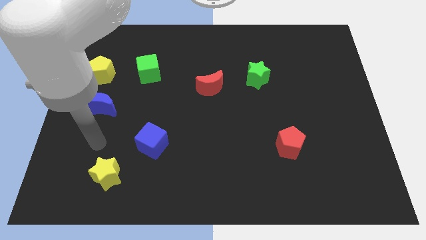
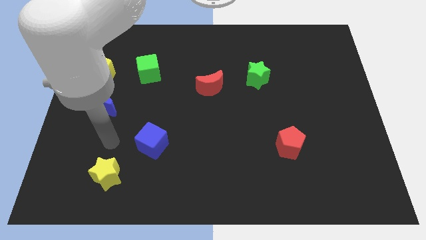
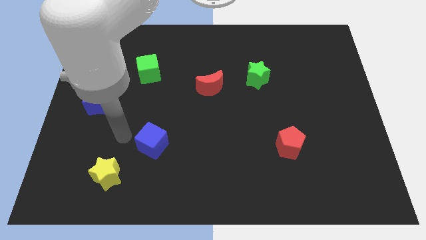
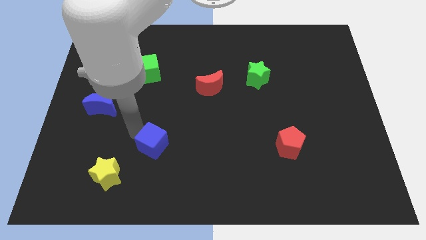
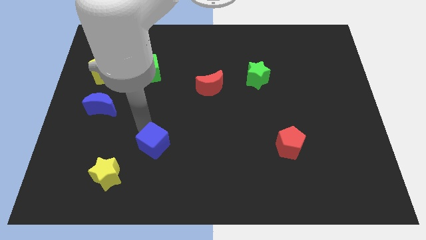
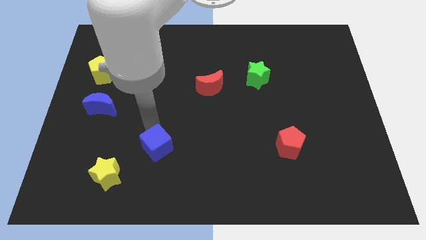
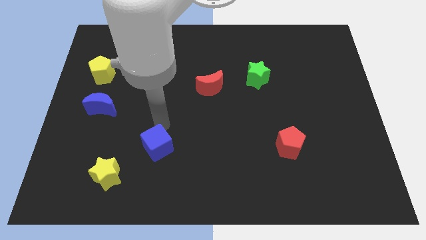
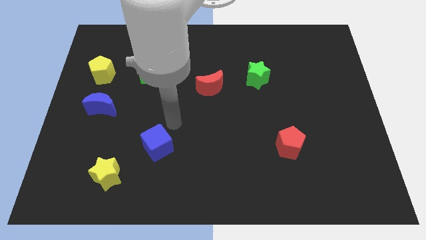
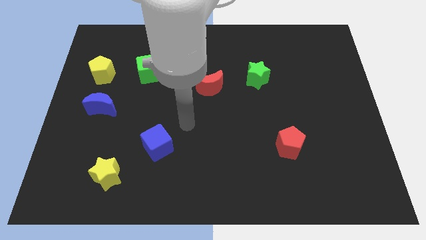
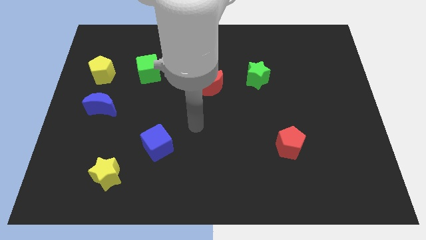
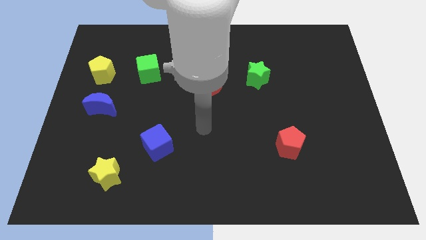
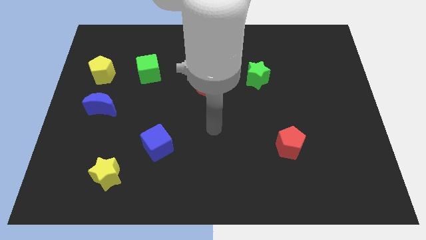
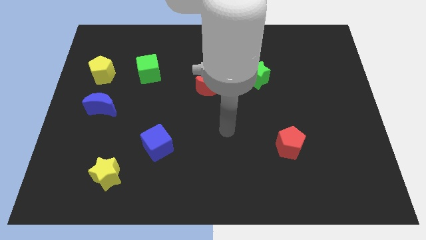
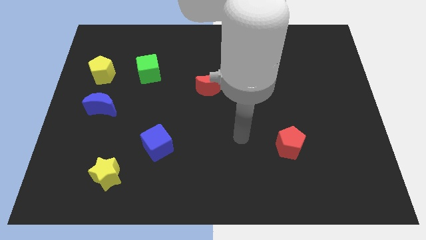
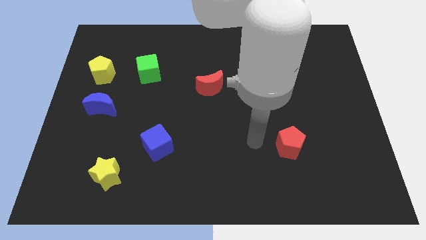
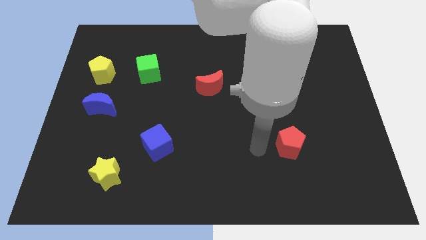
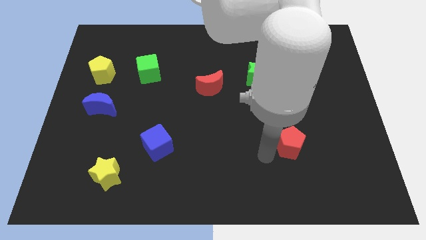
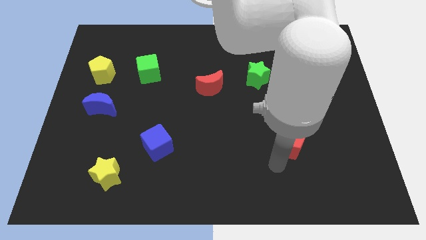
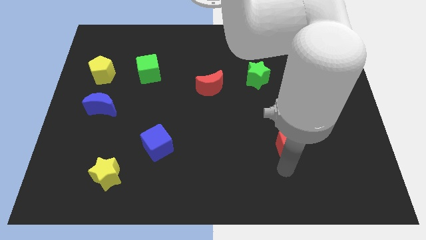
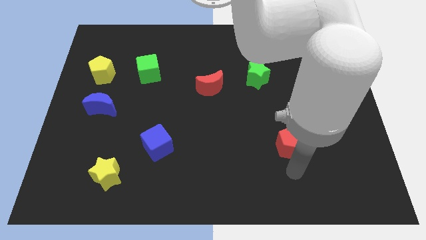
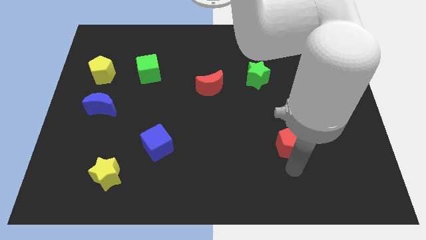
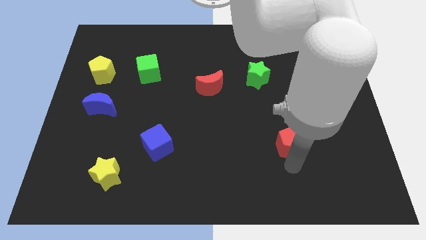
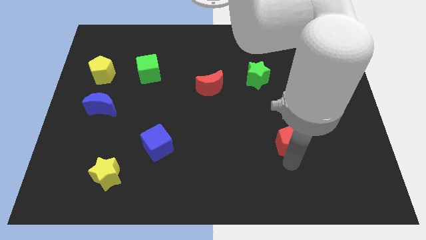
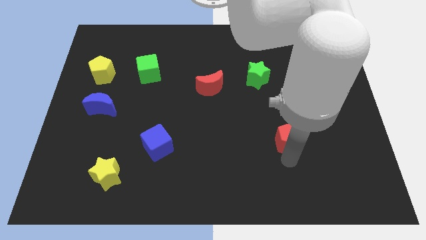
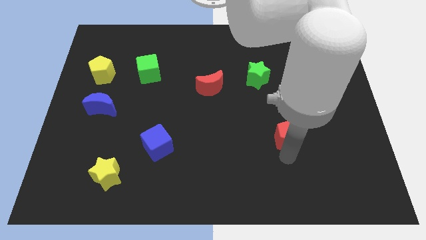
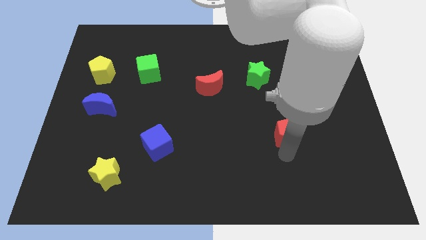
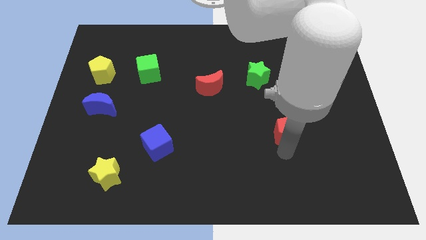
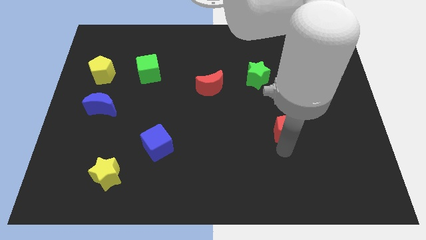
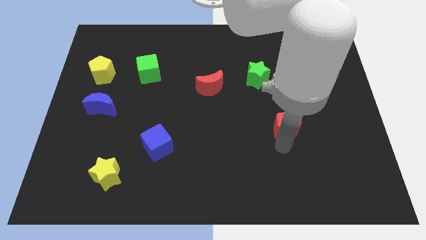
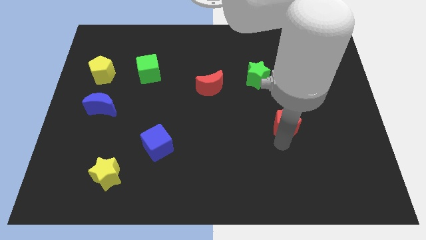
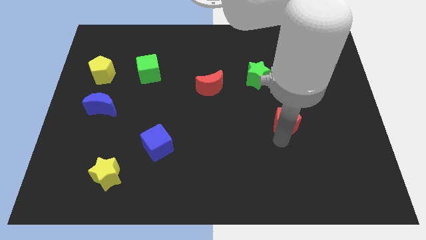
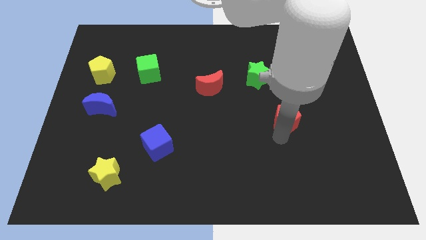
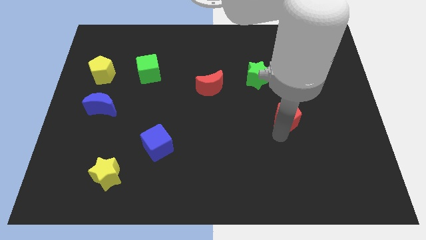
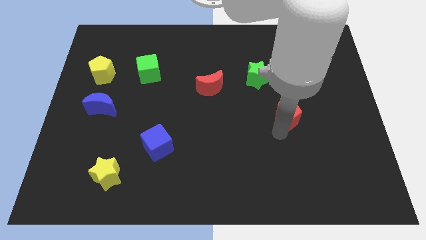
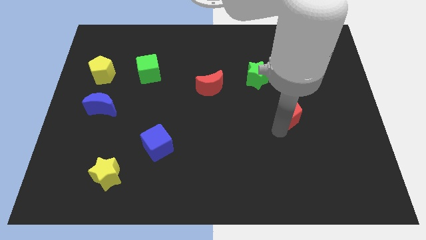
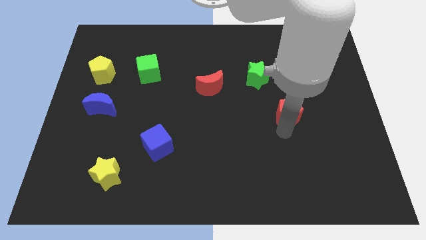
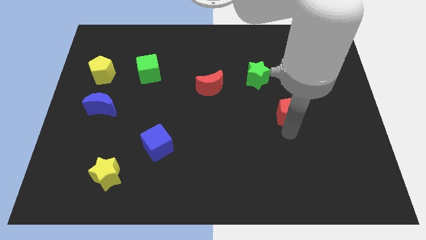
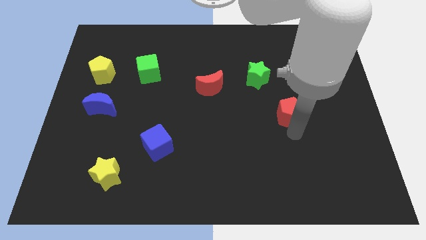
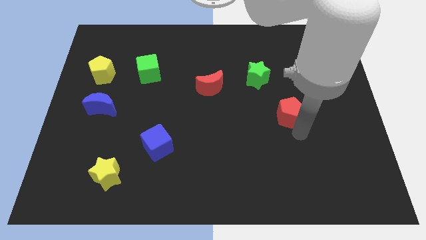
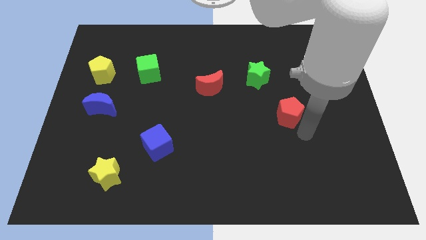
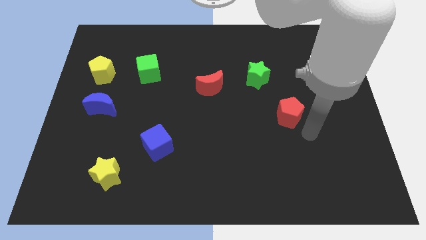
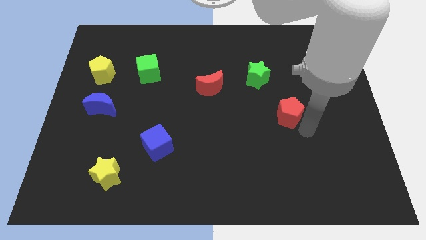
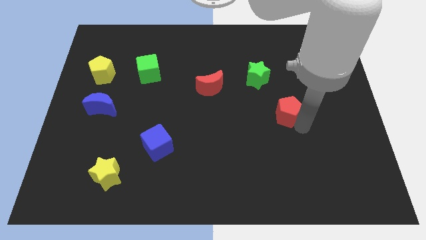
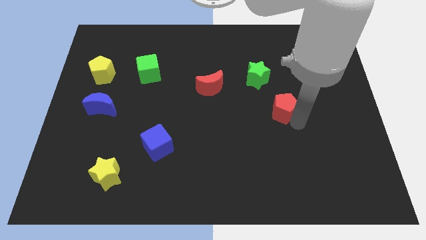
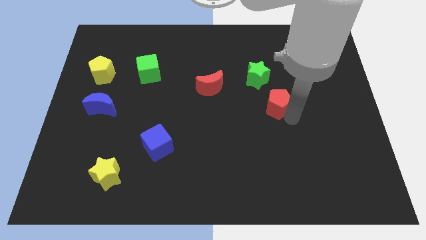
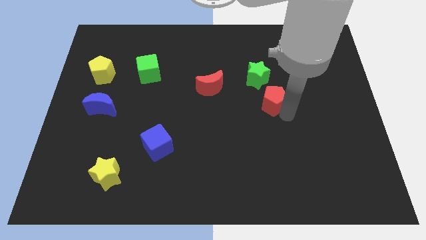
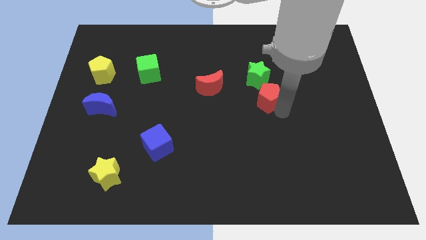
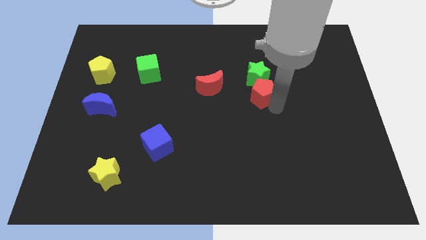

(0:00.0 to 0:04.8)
push the red pentagon to the green star

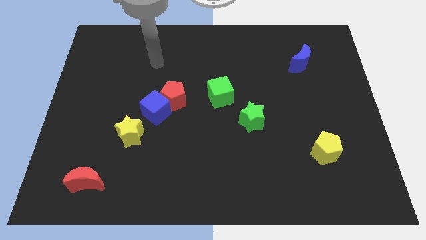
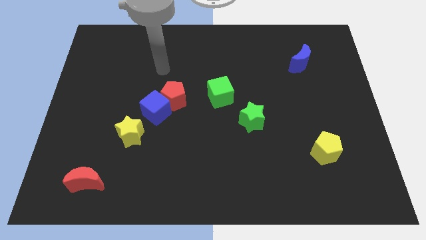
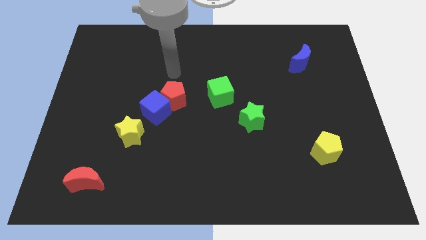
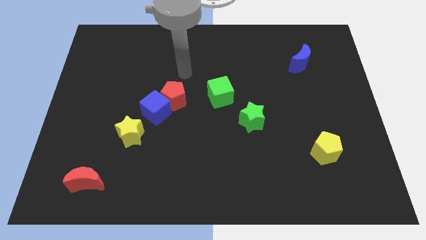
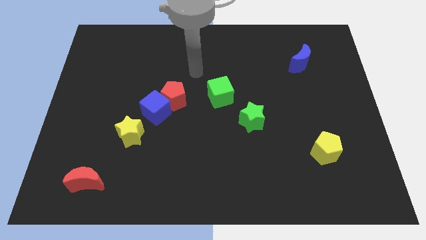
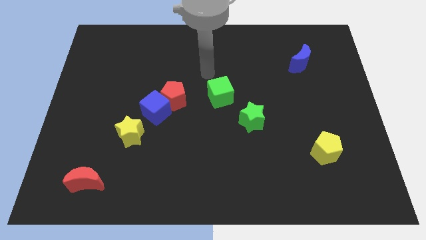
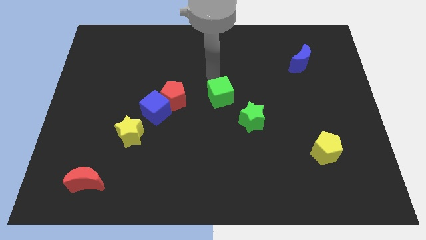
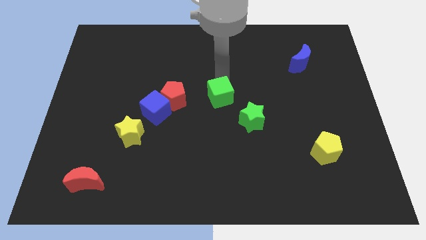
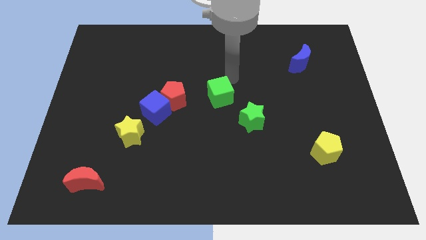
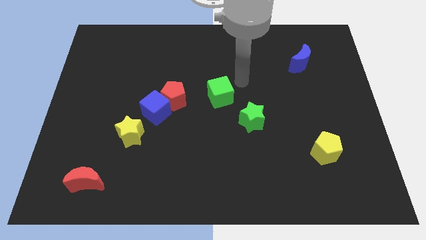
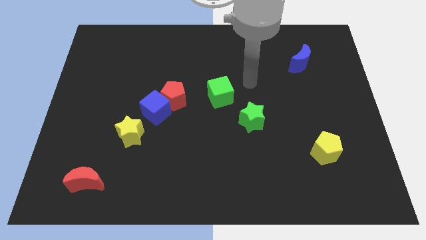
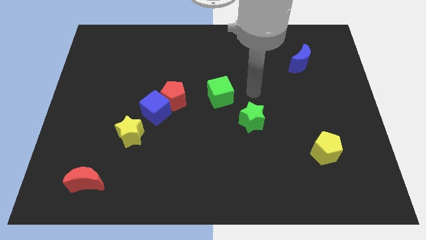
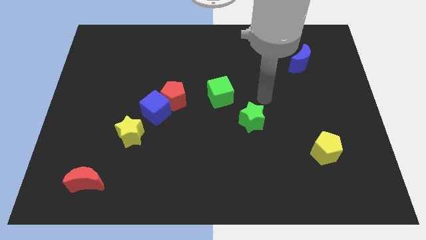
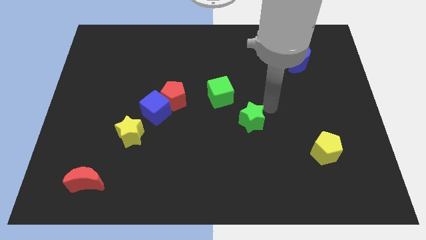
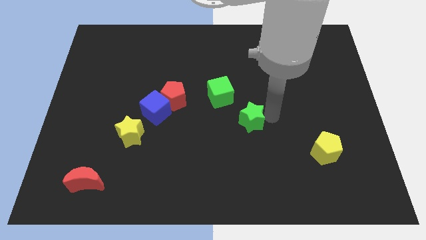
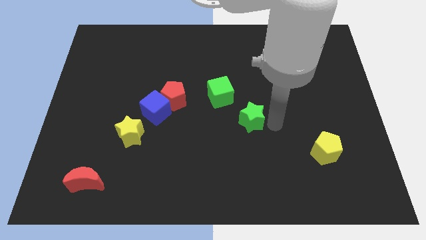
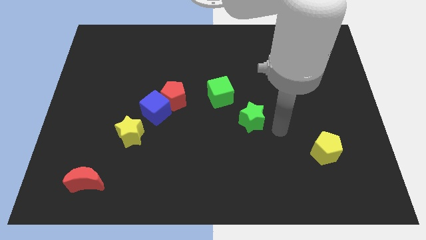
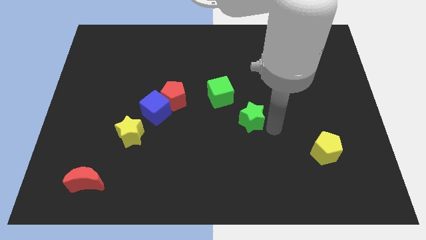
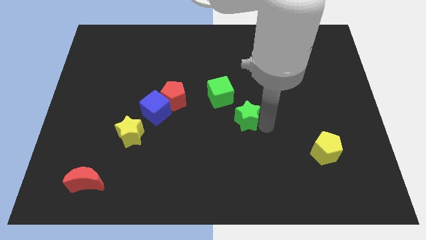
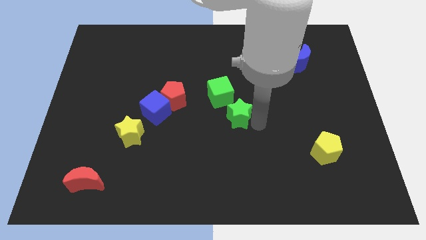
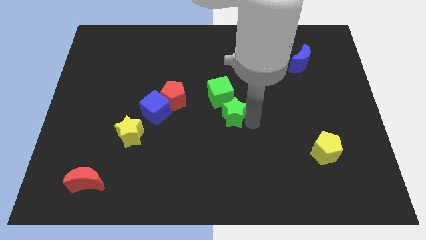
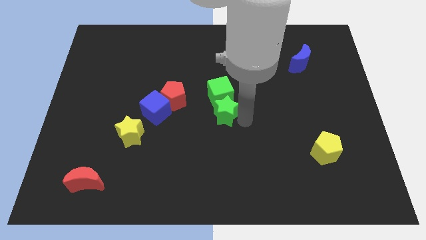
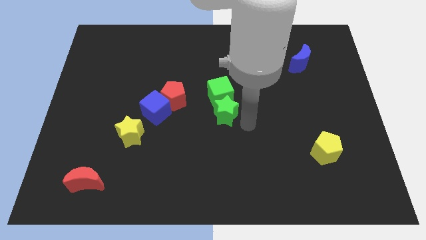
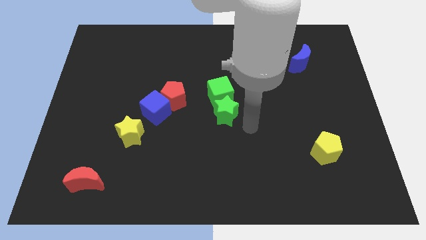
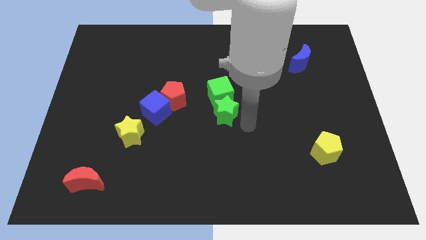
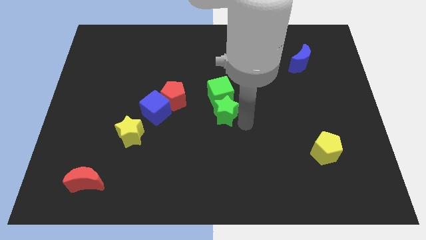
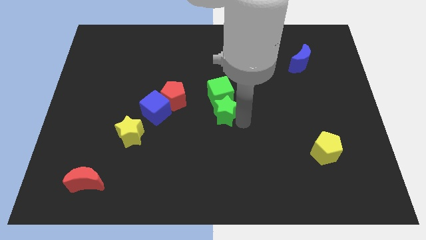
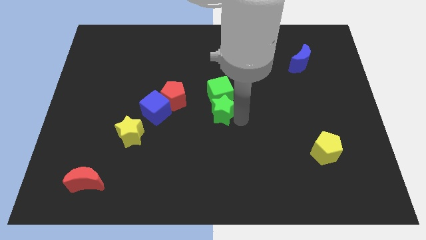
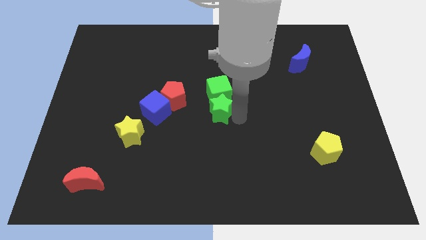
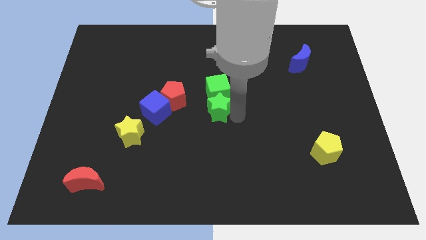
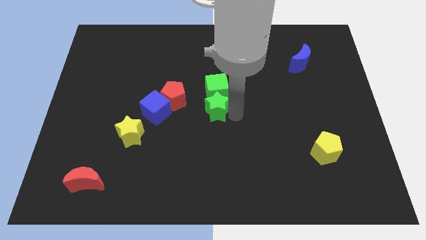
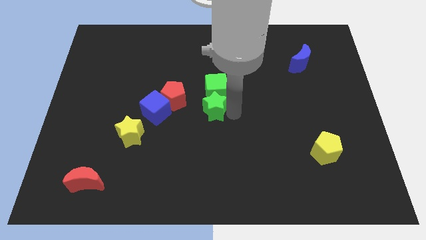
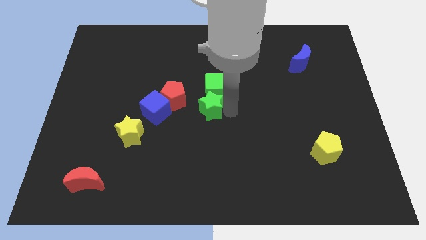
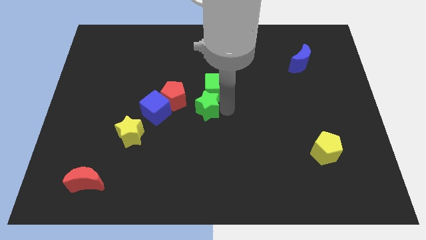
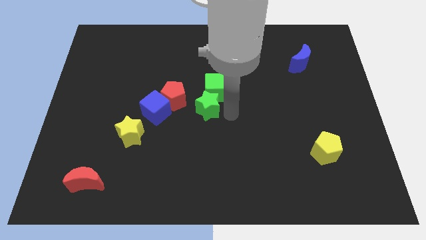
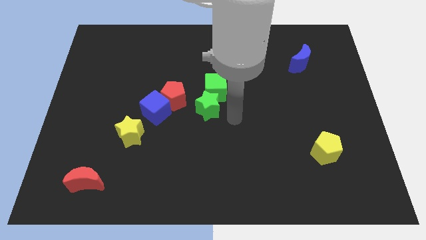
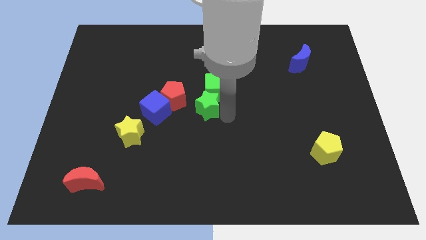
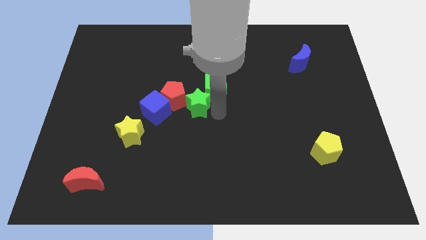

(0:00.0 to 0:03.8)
put the green star close to the red pentagon
